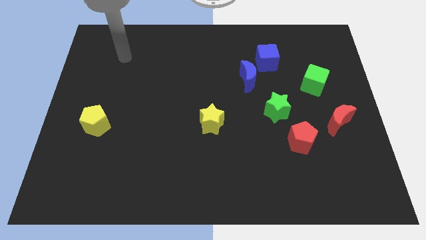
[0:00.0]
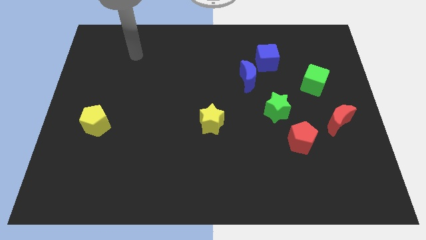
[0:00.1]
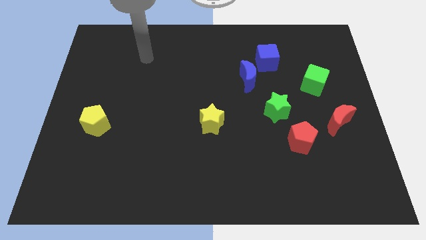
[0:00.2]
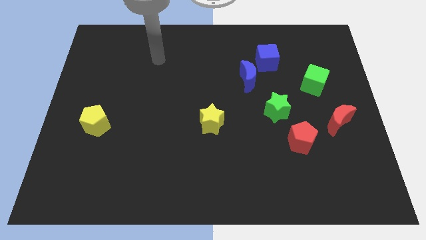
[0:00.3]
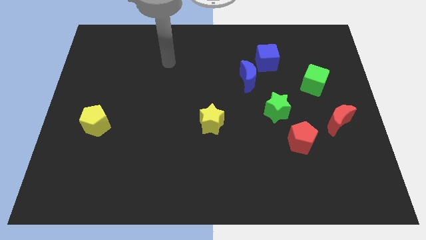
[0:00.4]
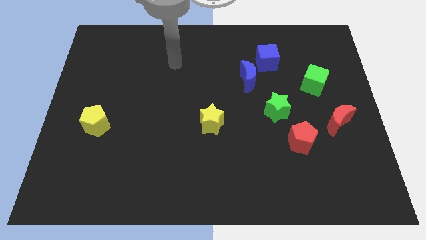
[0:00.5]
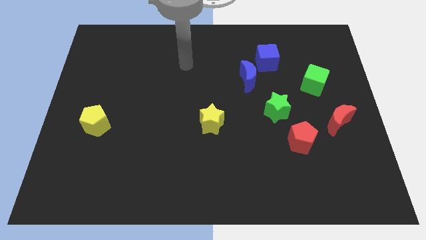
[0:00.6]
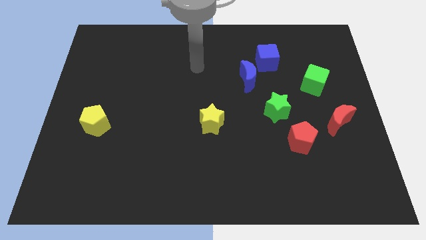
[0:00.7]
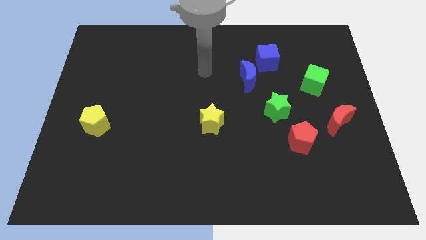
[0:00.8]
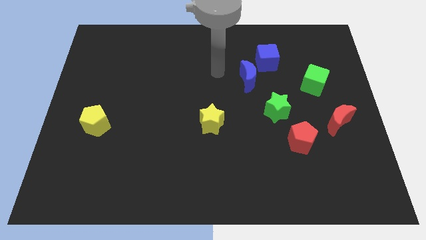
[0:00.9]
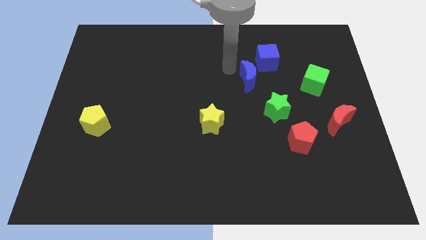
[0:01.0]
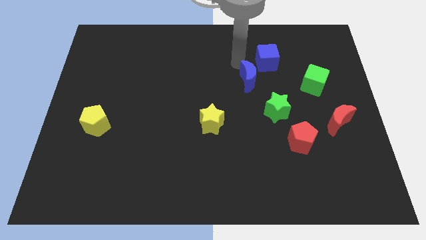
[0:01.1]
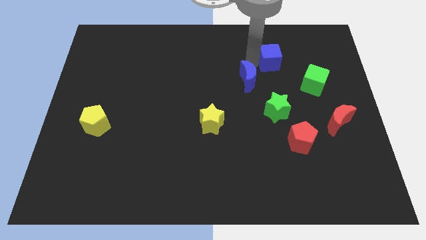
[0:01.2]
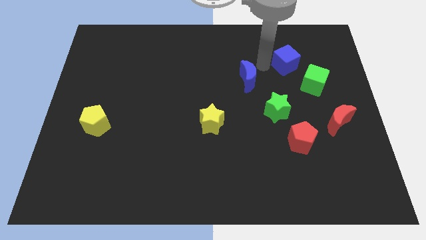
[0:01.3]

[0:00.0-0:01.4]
pull the blue moon apart from the blue cube

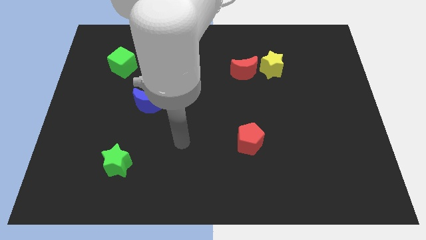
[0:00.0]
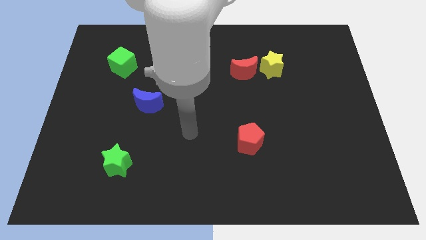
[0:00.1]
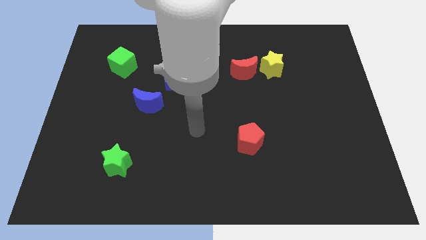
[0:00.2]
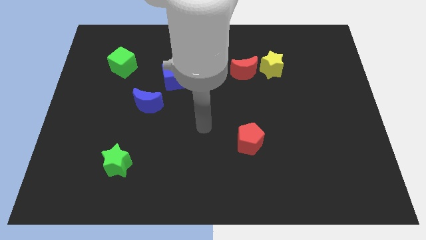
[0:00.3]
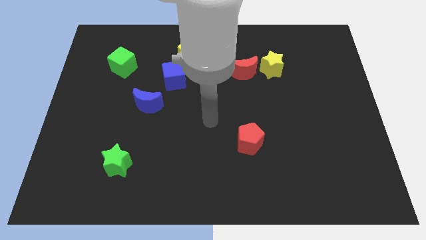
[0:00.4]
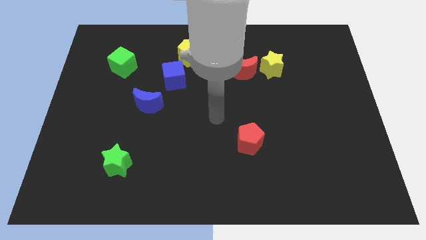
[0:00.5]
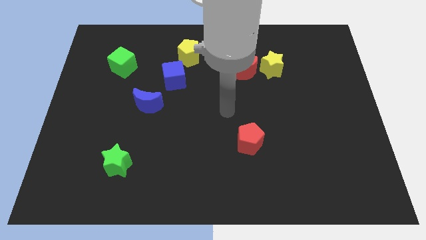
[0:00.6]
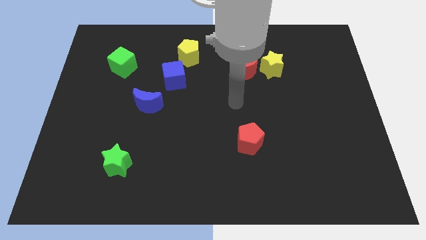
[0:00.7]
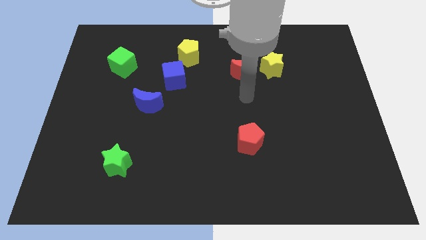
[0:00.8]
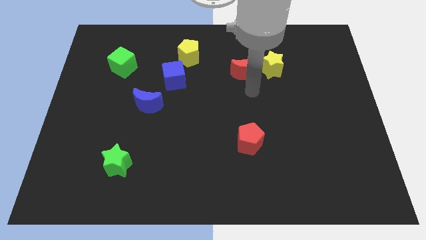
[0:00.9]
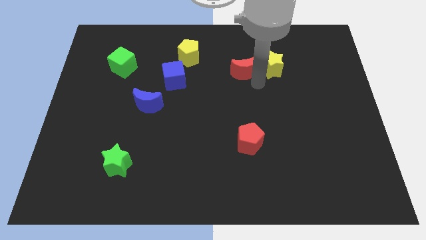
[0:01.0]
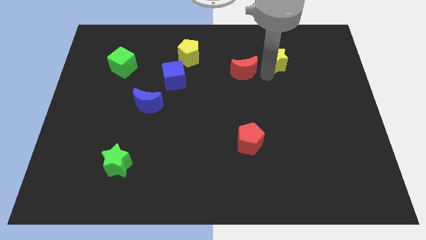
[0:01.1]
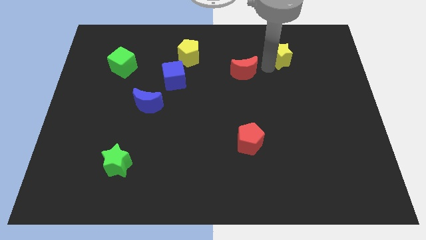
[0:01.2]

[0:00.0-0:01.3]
separate the red moon from the yellow star

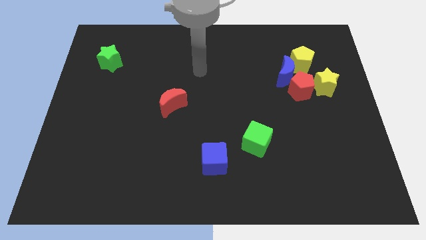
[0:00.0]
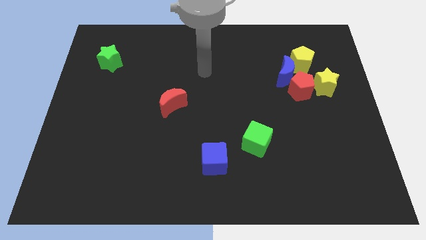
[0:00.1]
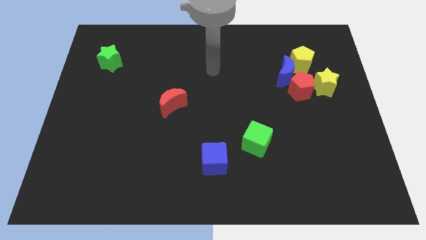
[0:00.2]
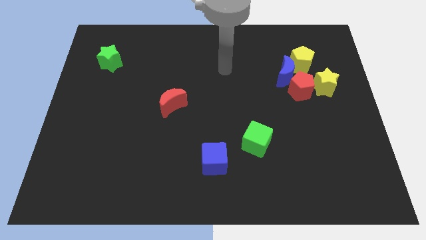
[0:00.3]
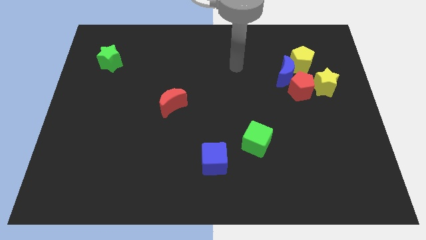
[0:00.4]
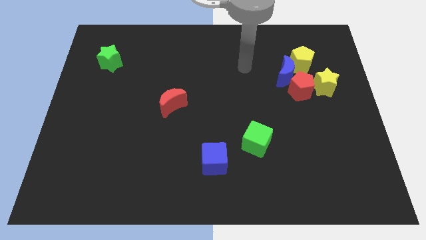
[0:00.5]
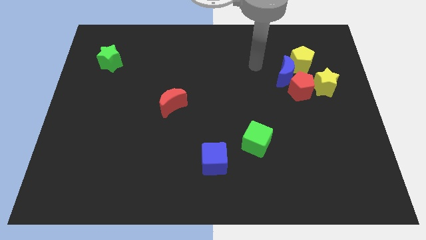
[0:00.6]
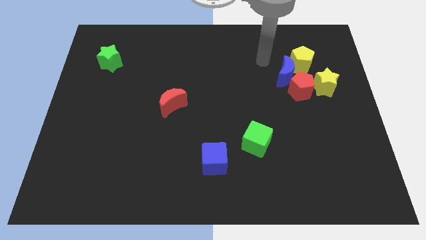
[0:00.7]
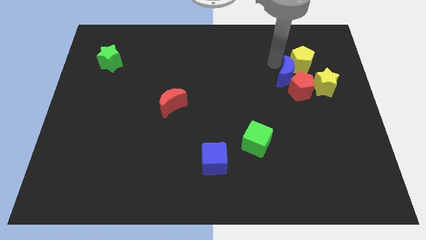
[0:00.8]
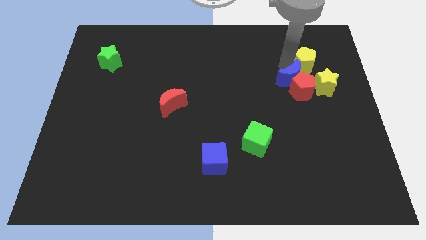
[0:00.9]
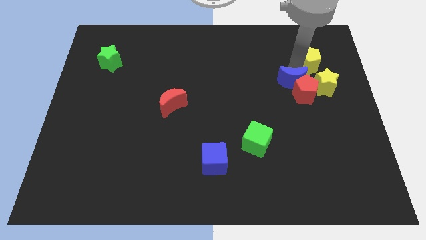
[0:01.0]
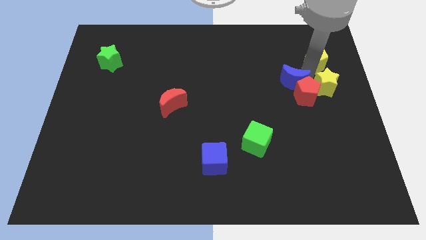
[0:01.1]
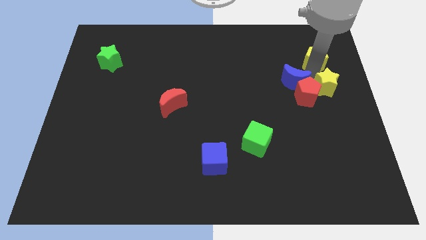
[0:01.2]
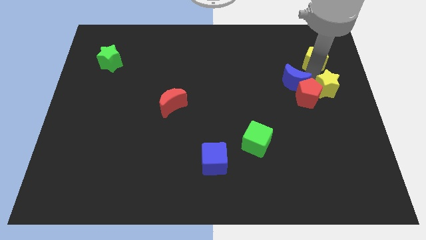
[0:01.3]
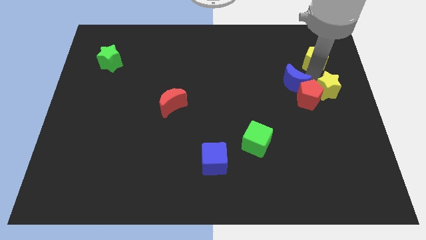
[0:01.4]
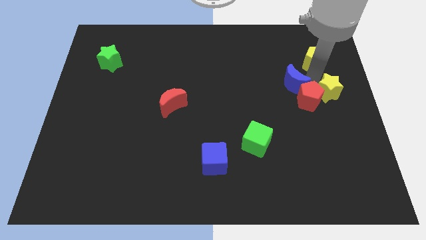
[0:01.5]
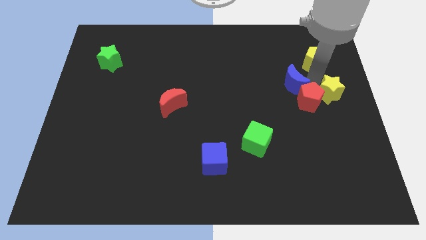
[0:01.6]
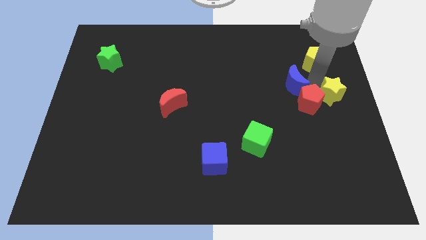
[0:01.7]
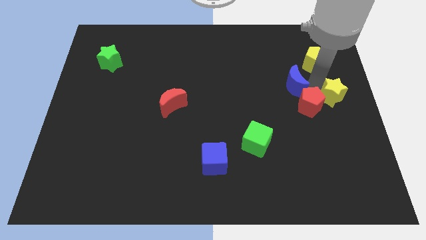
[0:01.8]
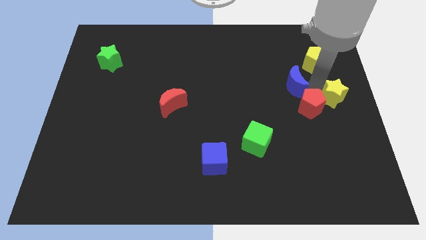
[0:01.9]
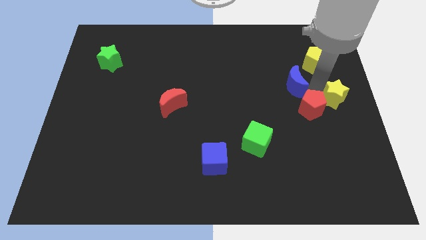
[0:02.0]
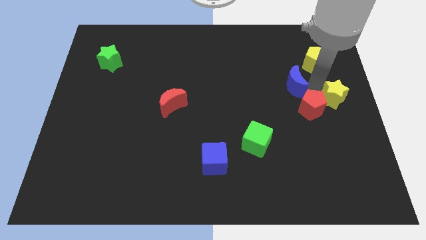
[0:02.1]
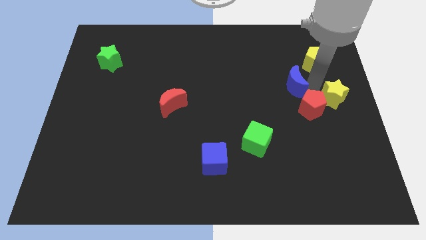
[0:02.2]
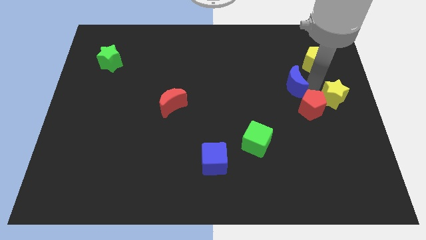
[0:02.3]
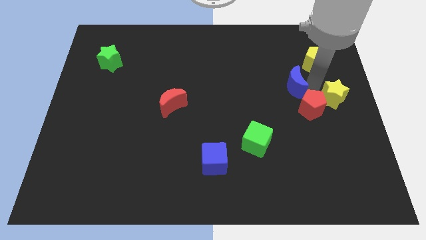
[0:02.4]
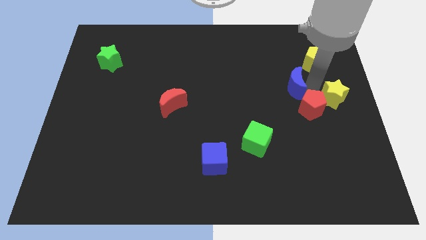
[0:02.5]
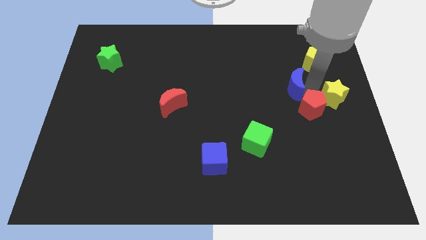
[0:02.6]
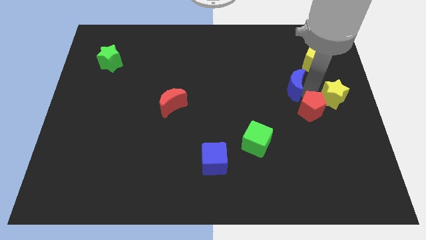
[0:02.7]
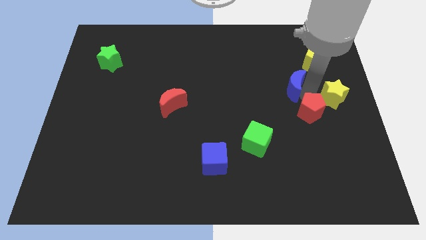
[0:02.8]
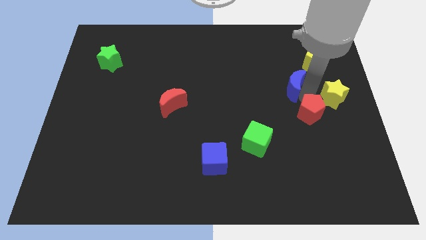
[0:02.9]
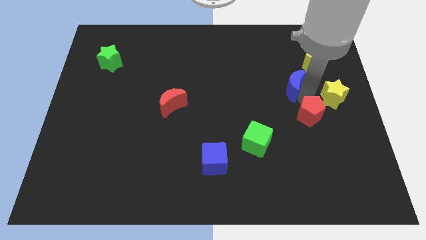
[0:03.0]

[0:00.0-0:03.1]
separate the red pentagon from the group

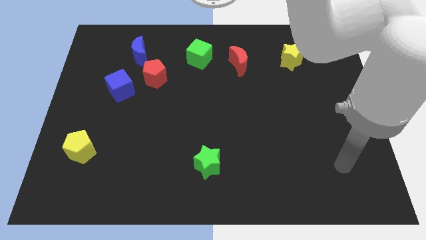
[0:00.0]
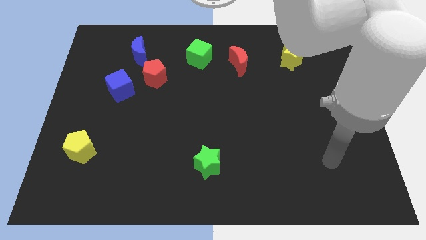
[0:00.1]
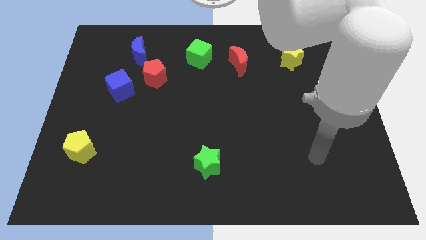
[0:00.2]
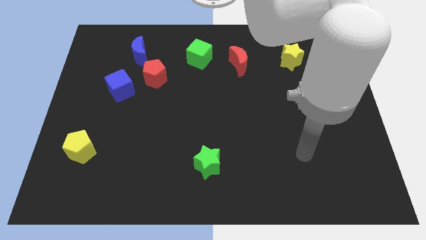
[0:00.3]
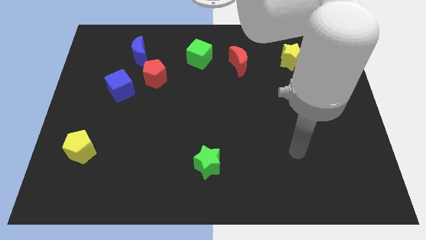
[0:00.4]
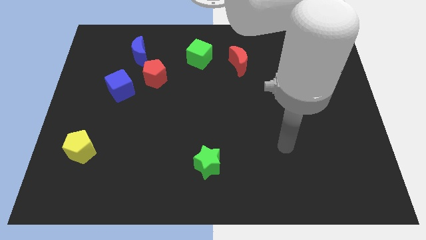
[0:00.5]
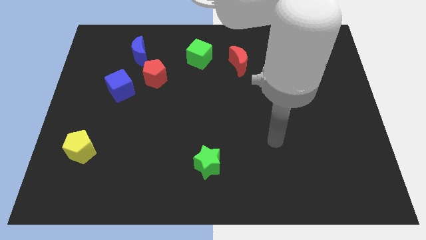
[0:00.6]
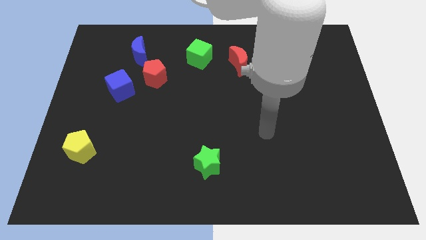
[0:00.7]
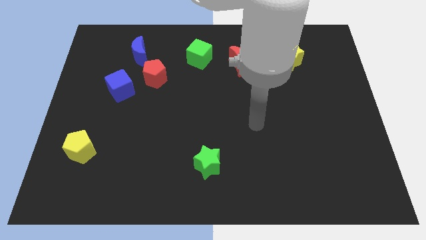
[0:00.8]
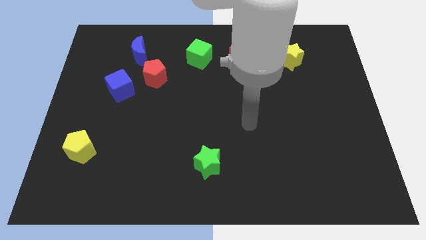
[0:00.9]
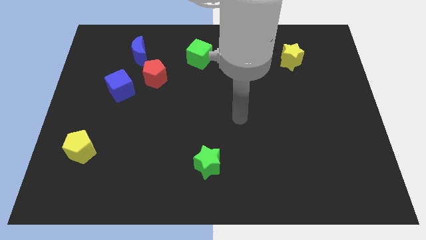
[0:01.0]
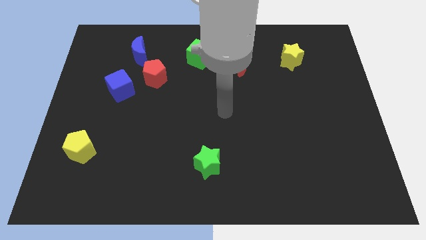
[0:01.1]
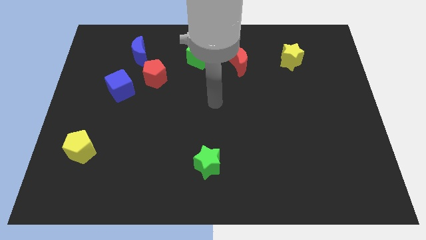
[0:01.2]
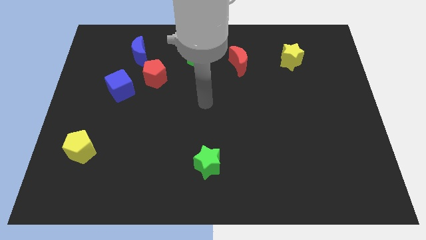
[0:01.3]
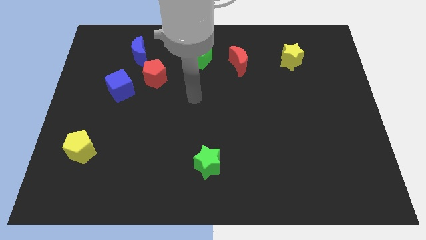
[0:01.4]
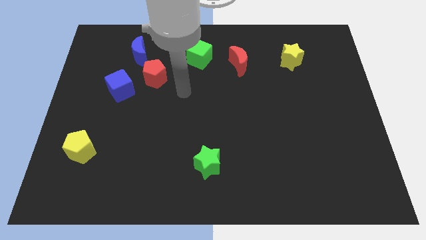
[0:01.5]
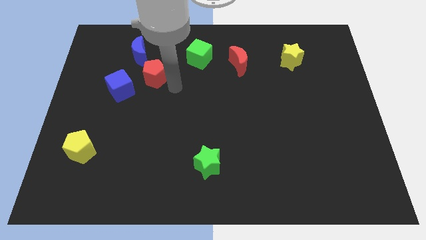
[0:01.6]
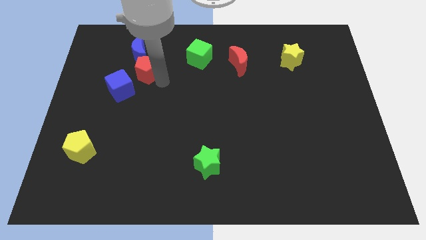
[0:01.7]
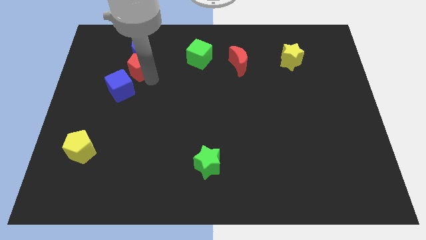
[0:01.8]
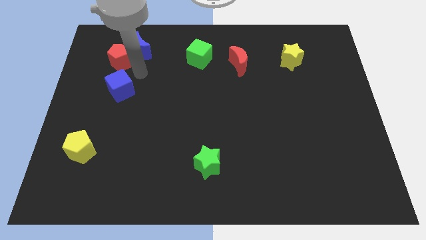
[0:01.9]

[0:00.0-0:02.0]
separate the blue cube from the red pentagon

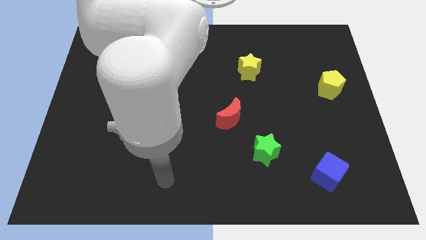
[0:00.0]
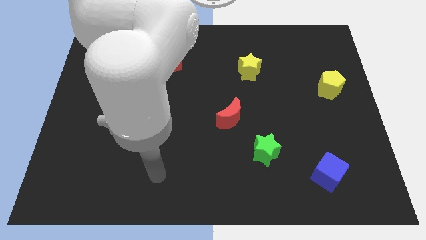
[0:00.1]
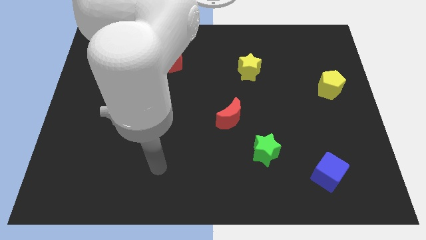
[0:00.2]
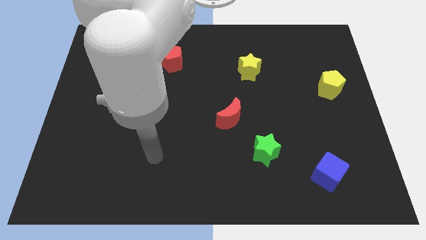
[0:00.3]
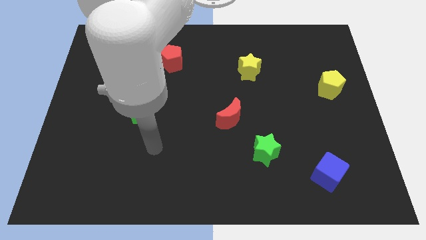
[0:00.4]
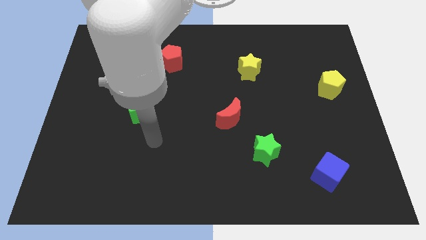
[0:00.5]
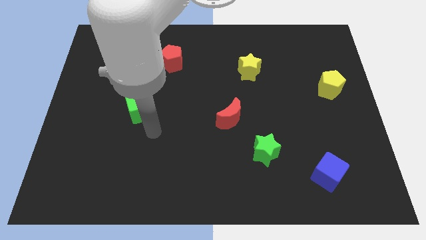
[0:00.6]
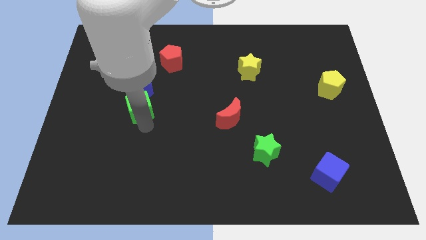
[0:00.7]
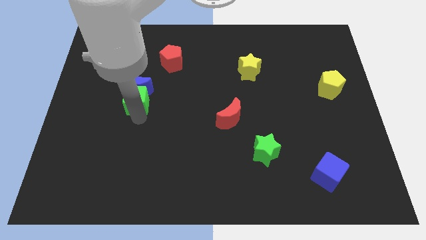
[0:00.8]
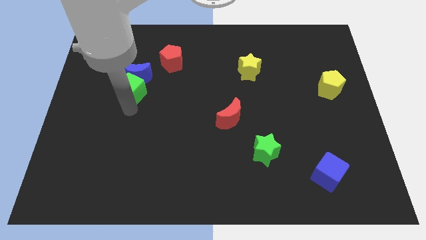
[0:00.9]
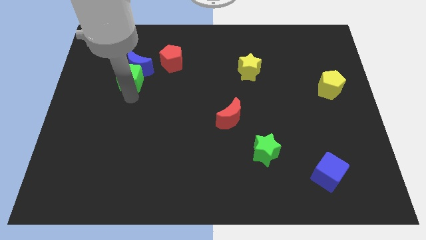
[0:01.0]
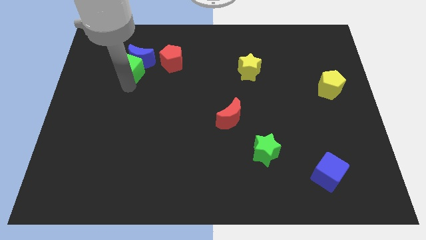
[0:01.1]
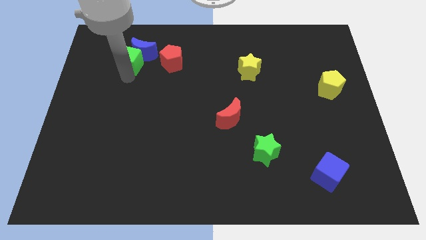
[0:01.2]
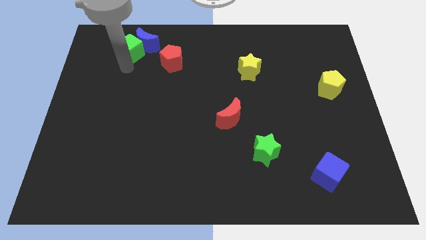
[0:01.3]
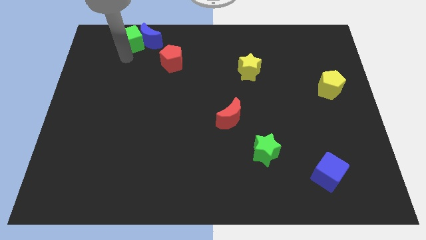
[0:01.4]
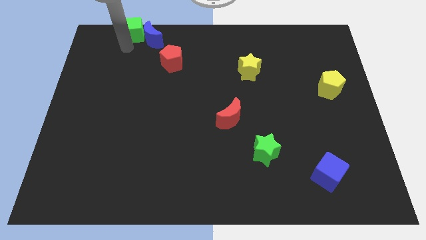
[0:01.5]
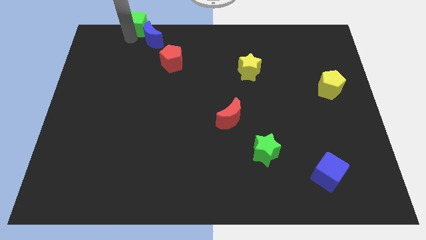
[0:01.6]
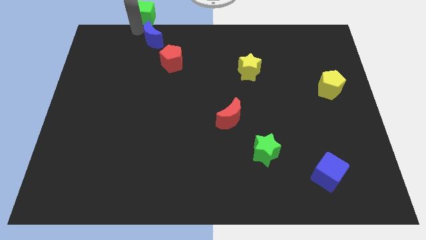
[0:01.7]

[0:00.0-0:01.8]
separate the blue moon from the green cube
